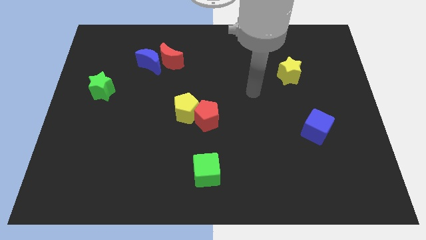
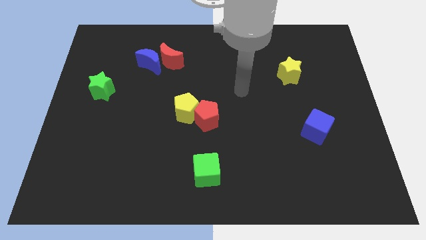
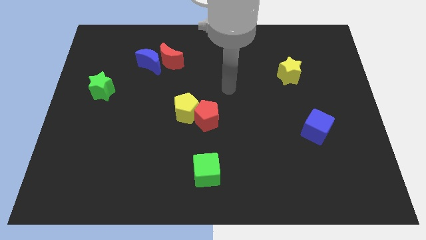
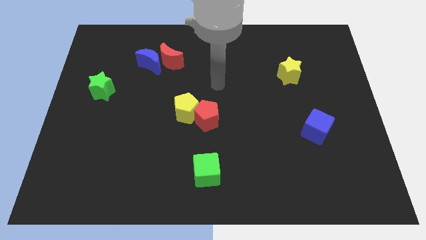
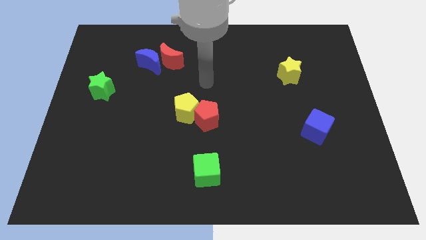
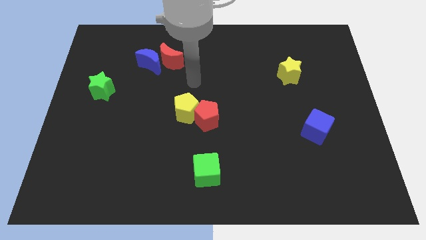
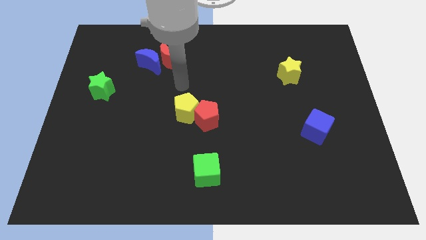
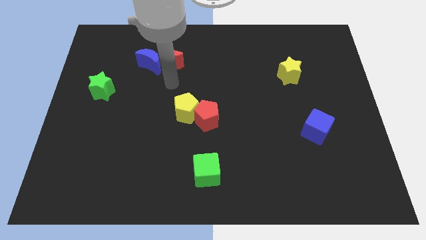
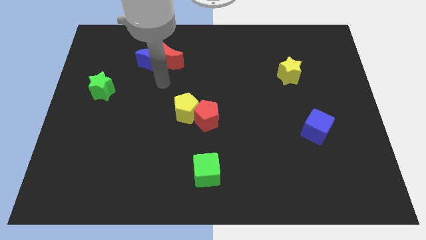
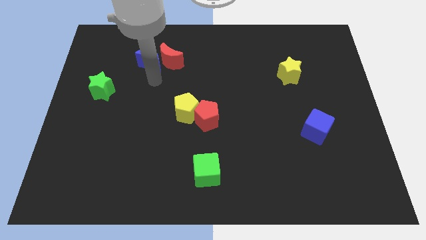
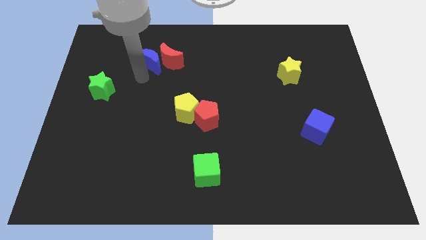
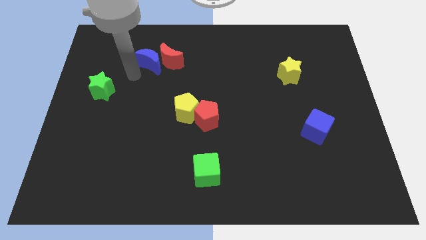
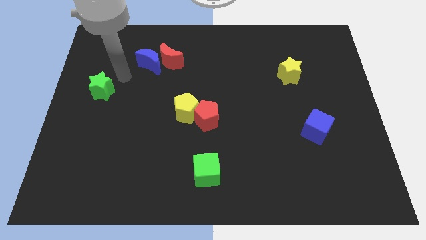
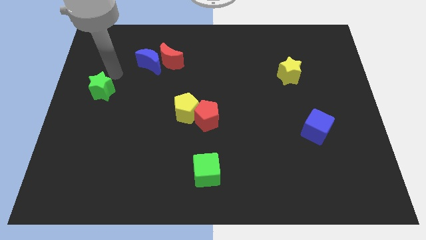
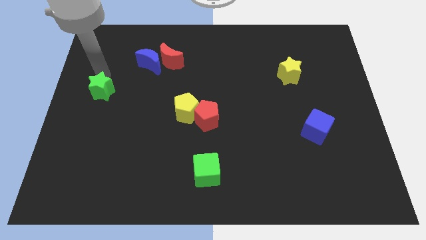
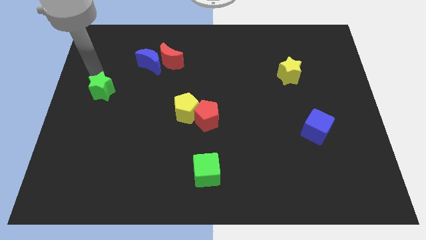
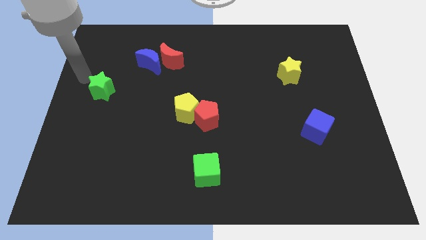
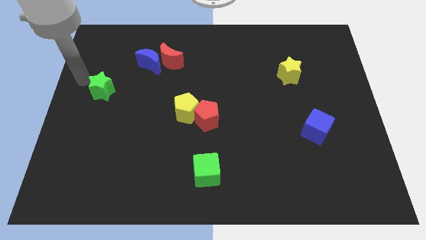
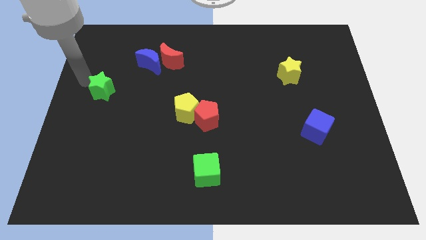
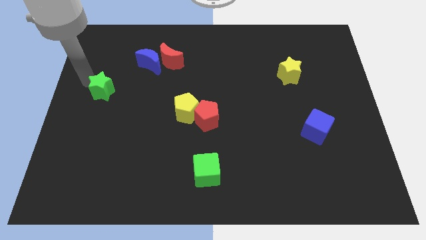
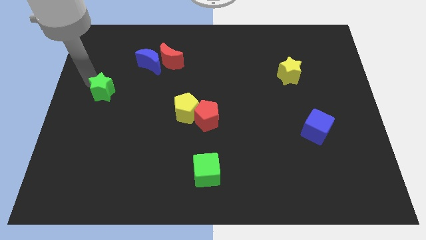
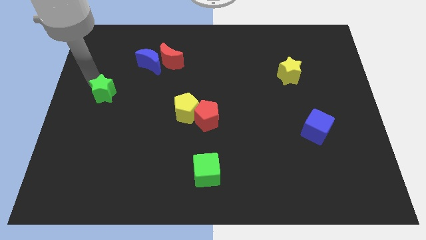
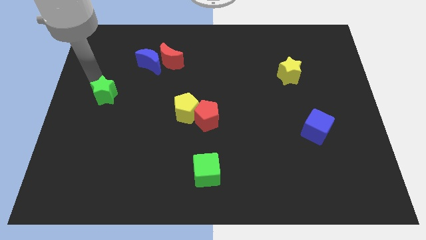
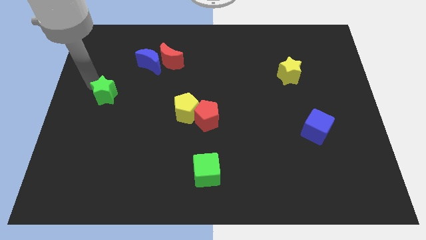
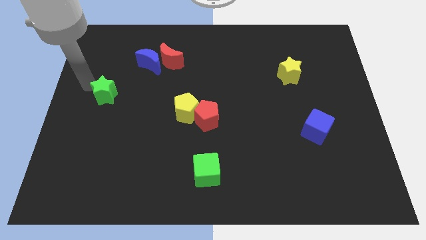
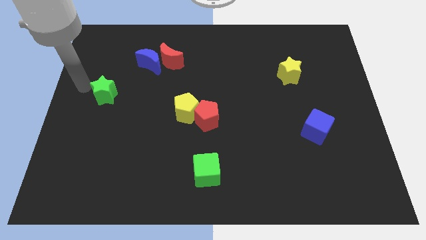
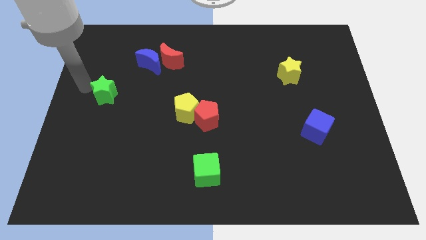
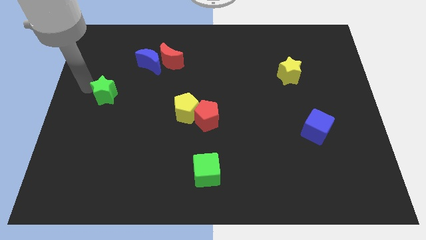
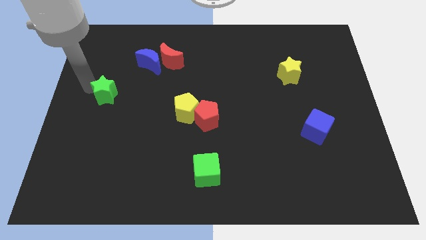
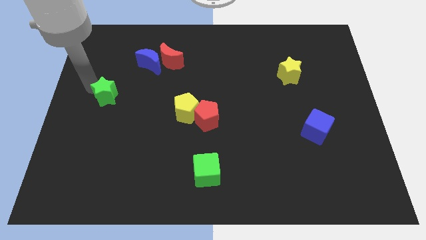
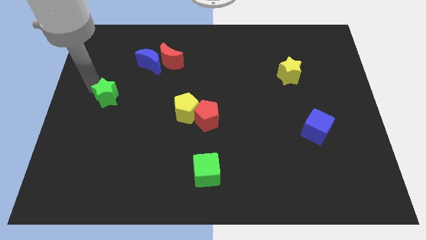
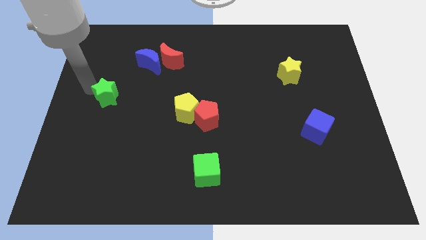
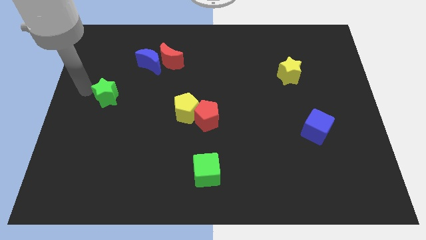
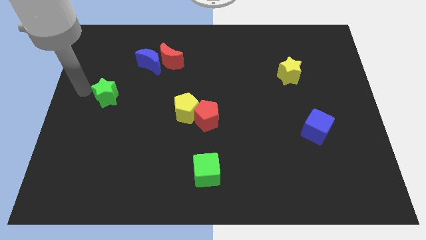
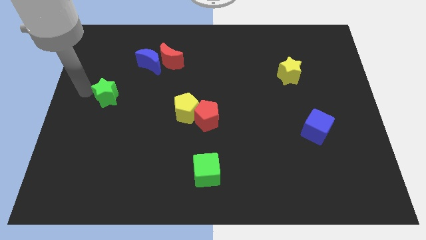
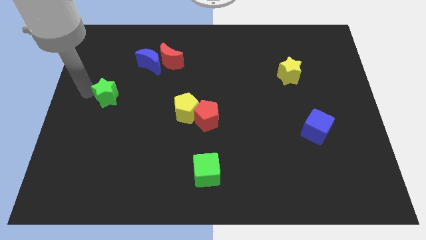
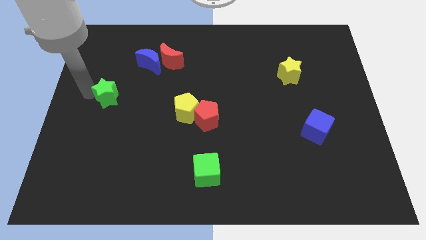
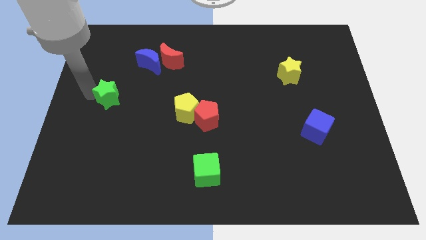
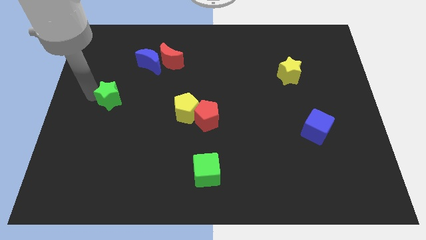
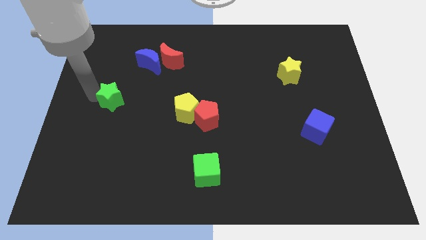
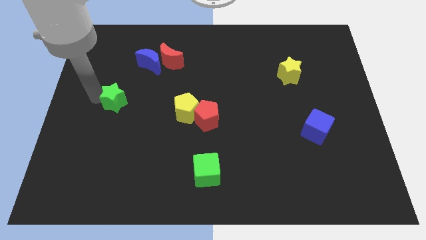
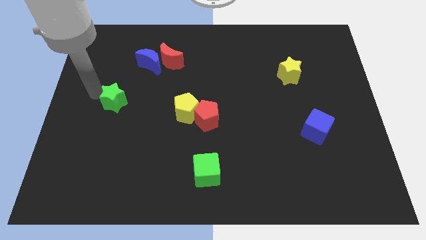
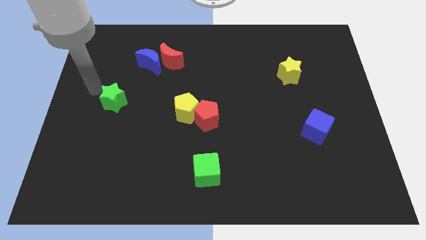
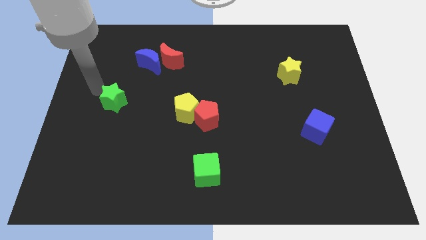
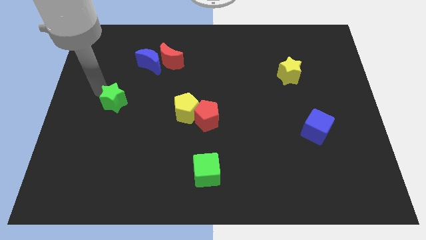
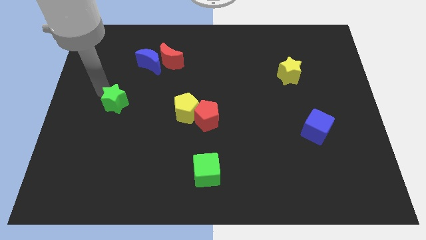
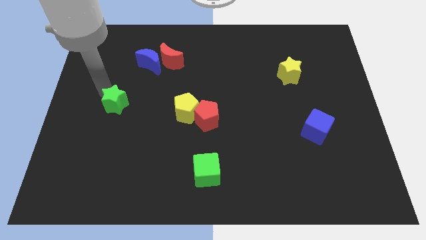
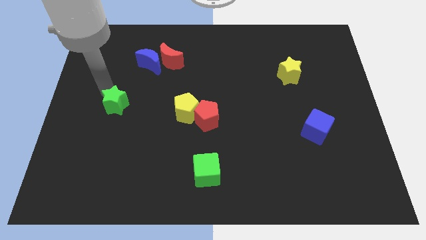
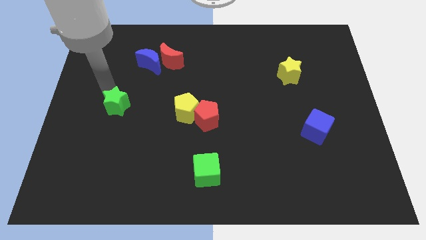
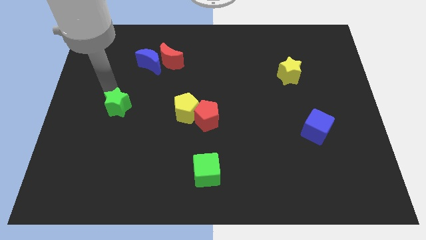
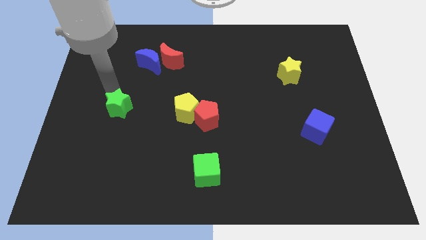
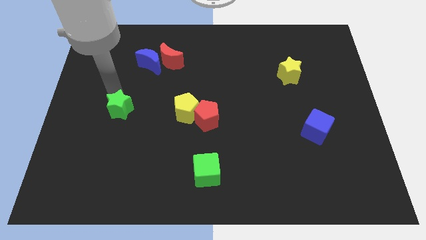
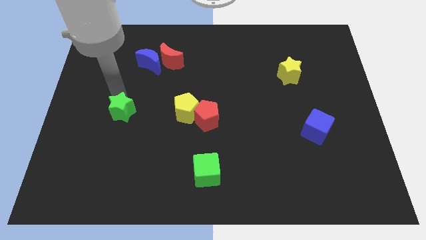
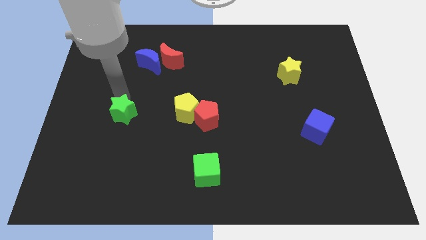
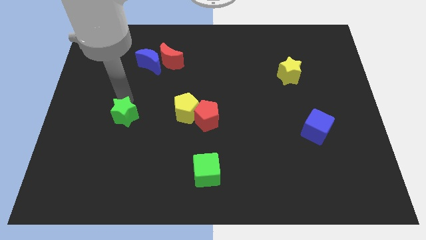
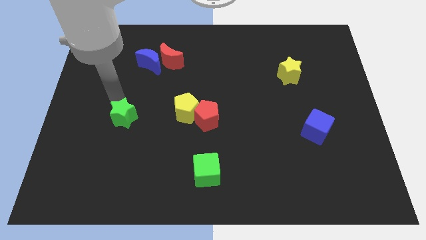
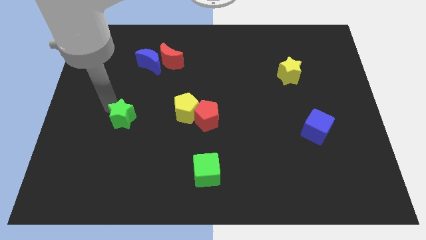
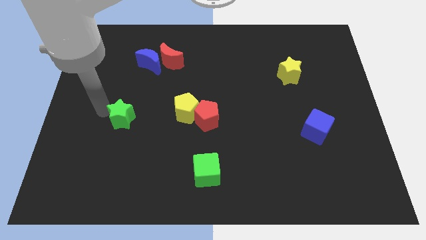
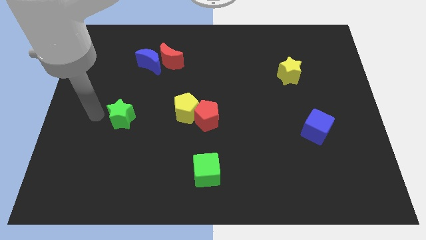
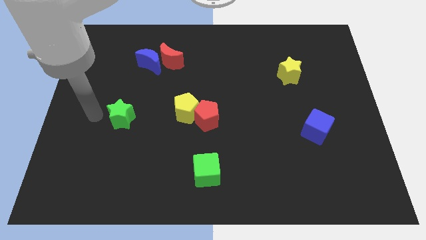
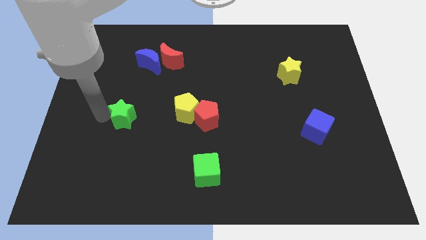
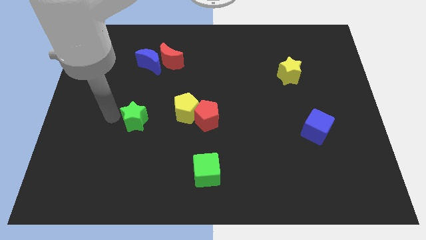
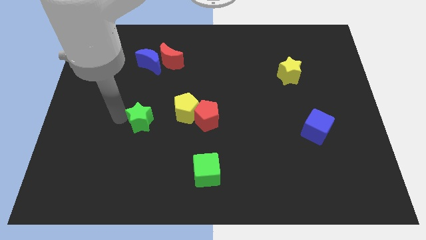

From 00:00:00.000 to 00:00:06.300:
move the green star to the left side of the red pentagon

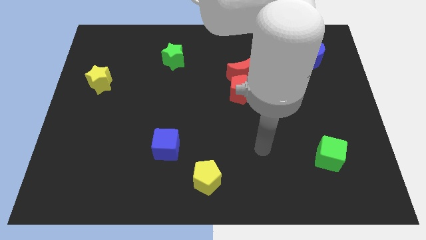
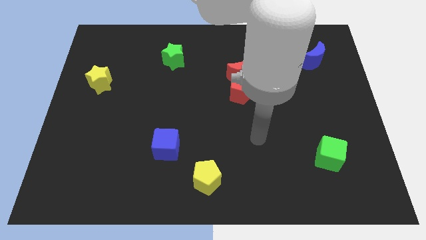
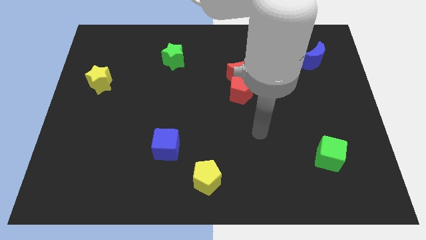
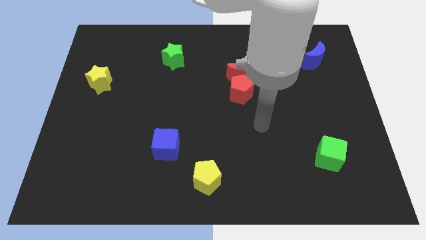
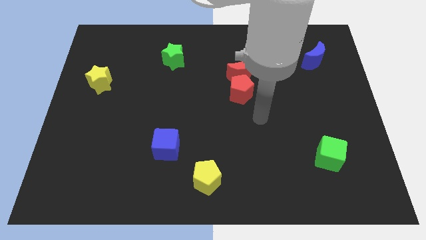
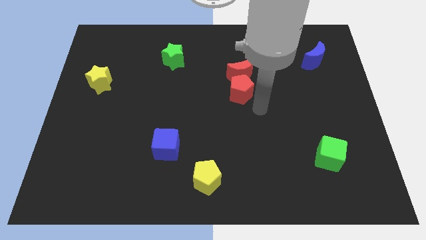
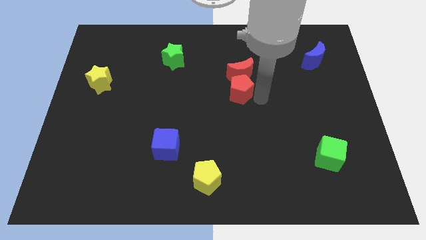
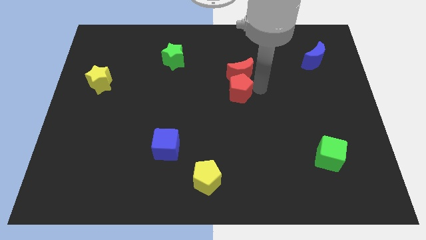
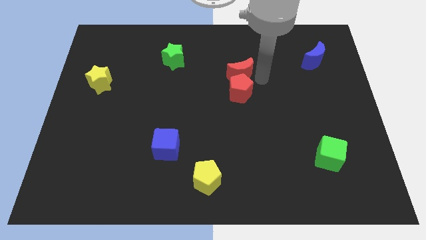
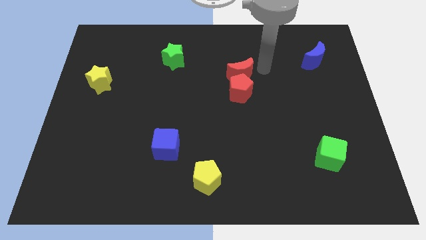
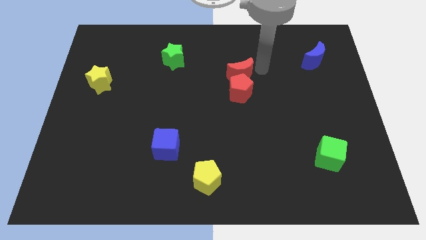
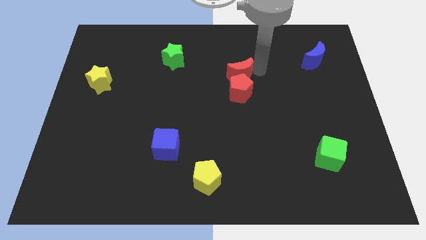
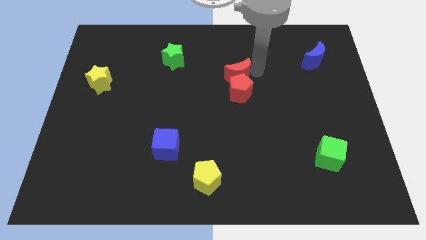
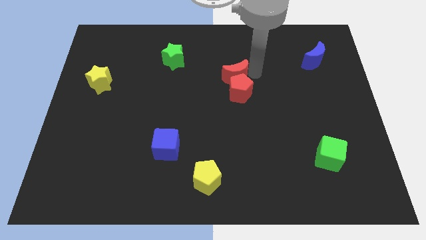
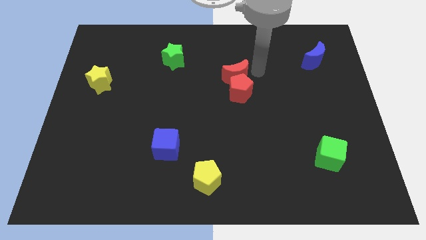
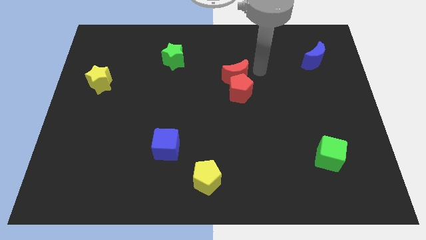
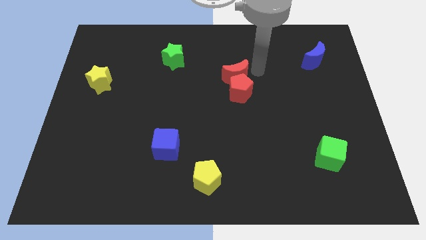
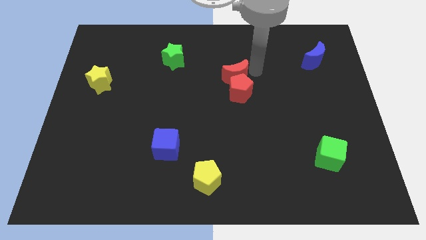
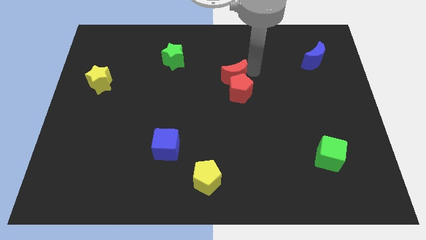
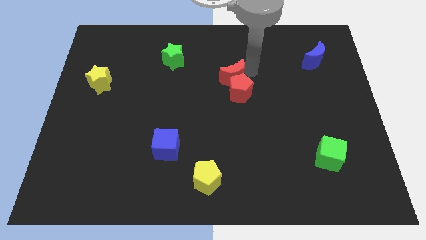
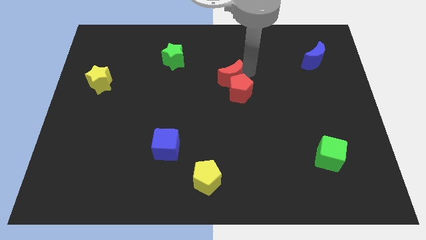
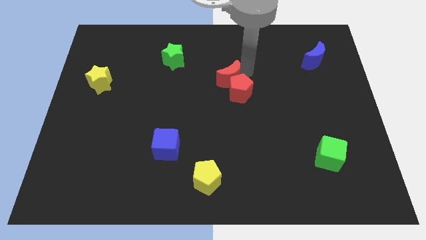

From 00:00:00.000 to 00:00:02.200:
push the red moon just left of the red pentagon

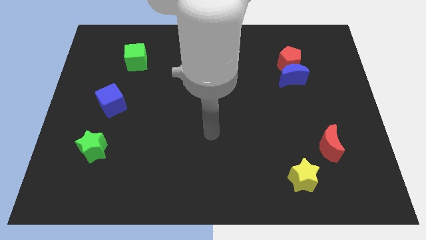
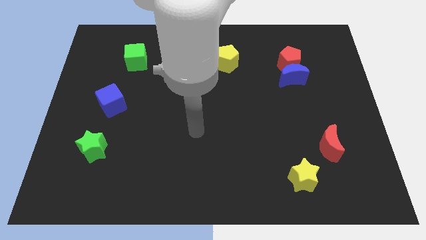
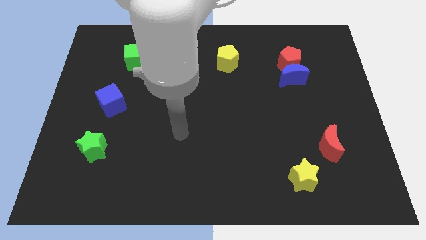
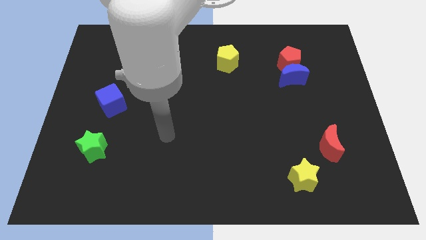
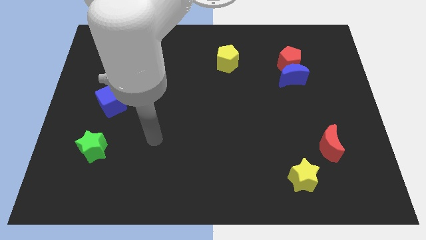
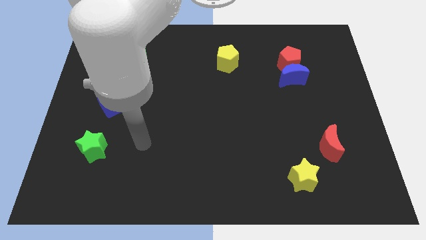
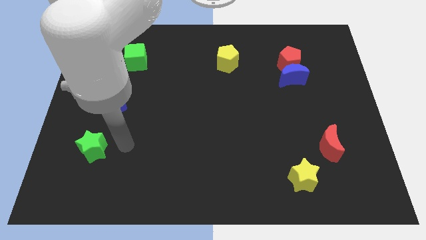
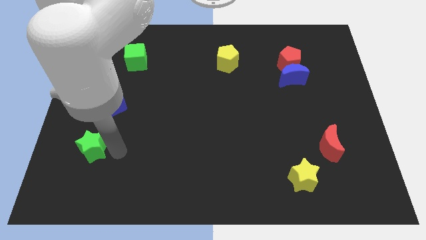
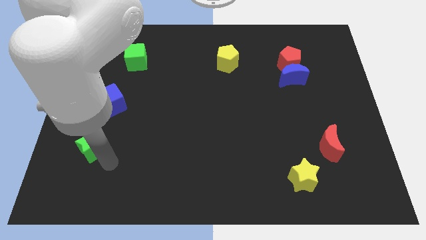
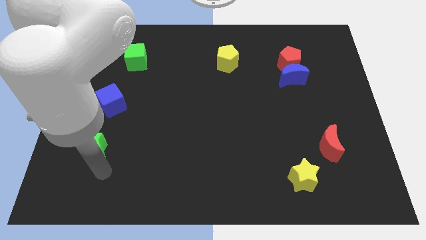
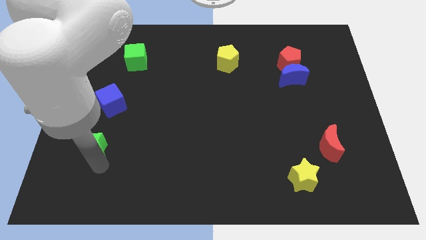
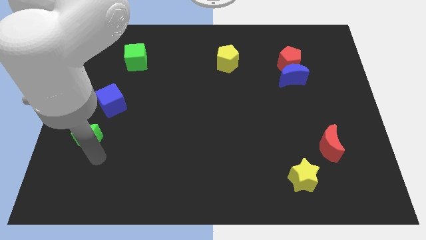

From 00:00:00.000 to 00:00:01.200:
slide the green star to the bottom left of the blue cube
